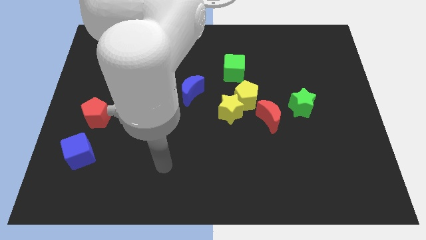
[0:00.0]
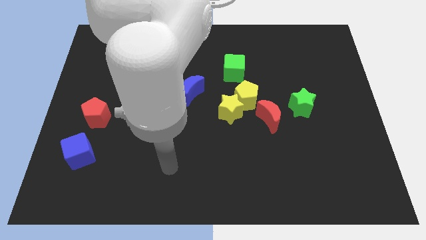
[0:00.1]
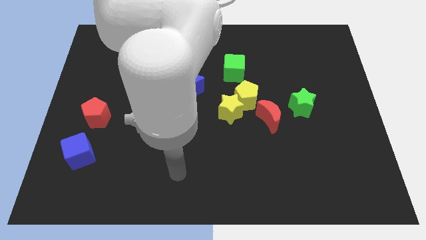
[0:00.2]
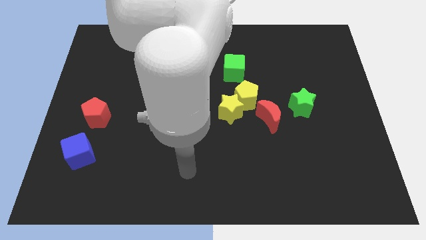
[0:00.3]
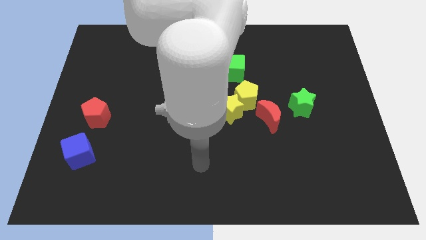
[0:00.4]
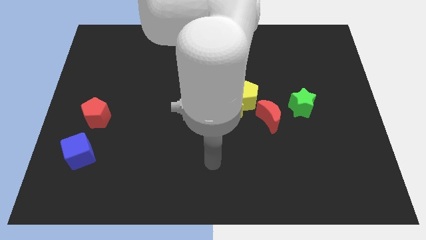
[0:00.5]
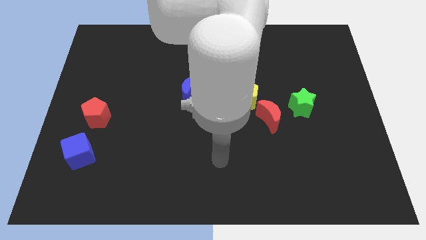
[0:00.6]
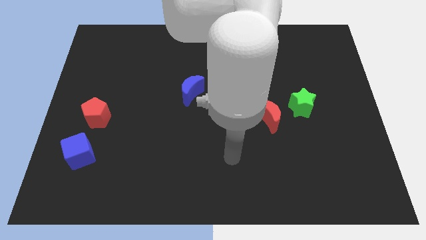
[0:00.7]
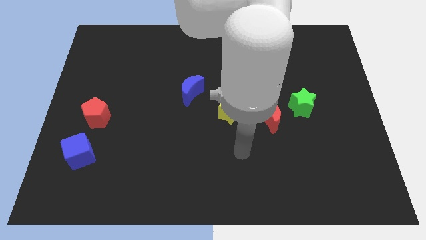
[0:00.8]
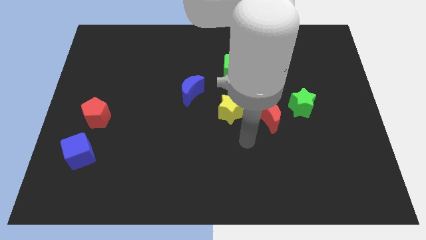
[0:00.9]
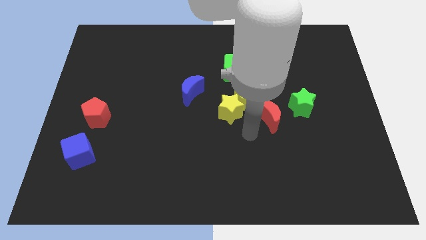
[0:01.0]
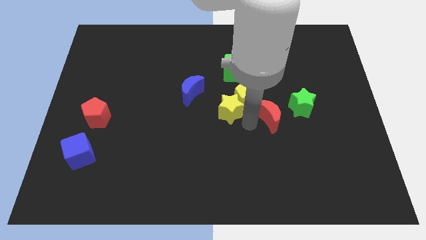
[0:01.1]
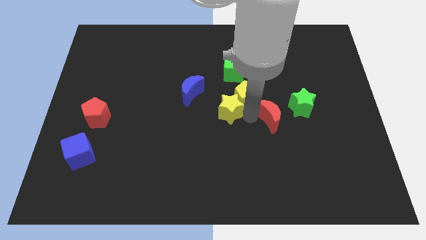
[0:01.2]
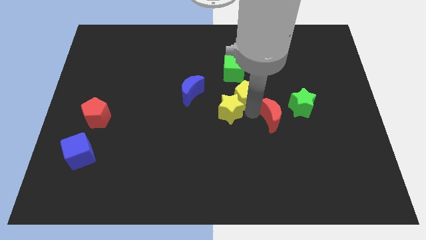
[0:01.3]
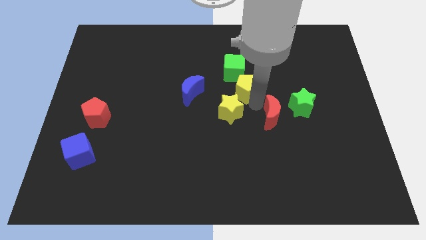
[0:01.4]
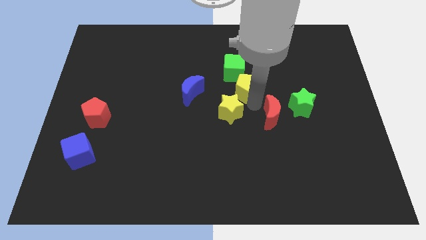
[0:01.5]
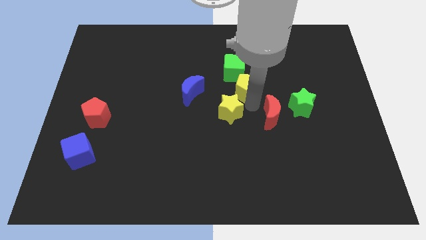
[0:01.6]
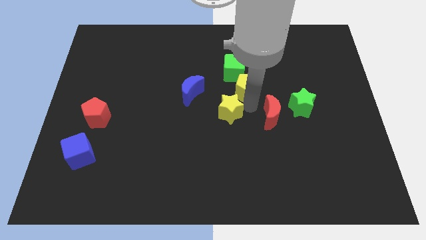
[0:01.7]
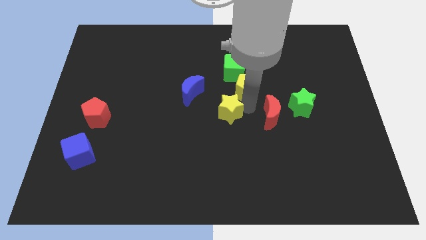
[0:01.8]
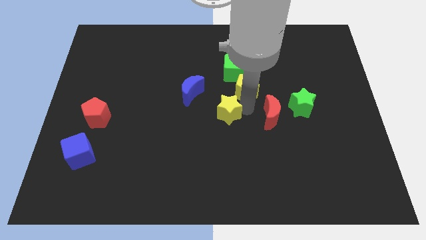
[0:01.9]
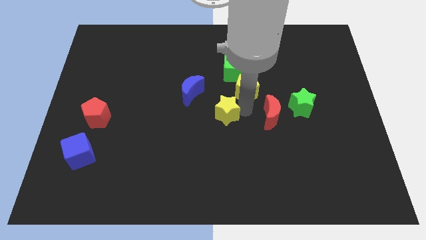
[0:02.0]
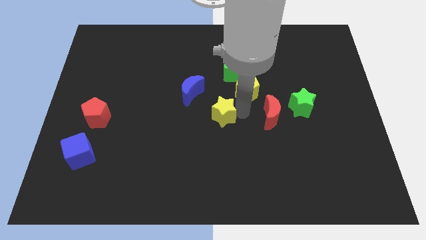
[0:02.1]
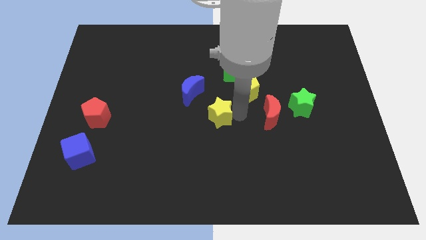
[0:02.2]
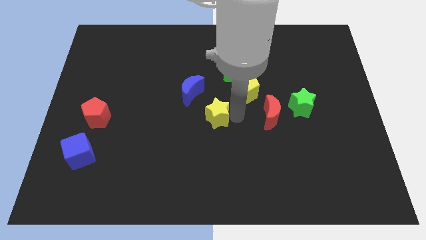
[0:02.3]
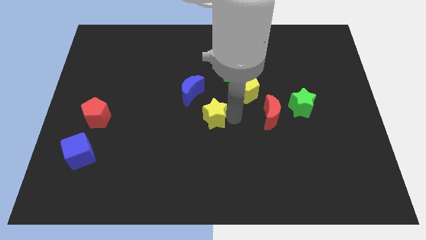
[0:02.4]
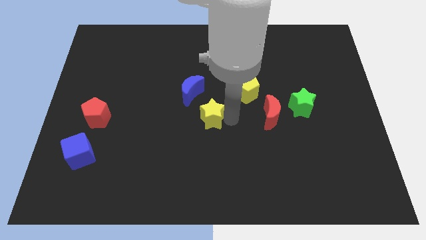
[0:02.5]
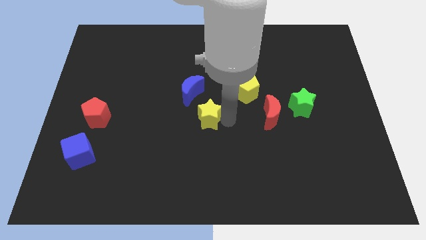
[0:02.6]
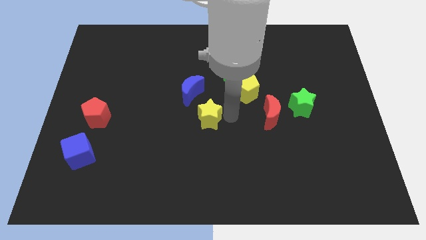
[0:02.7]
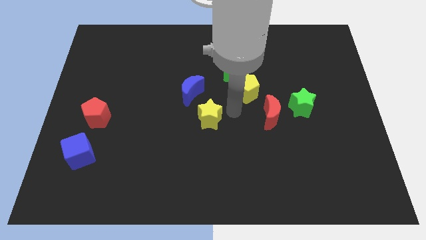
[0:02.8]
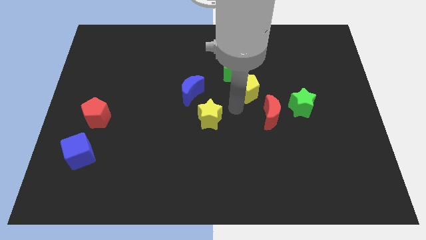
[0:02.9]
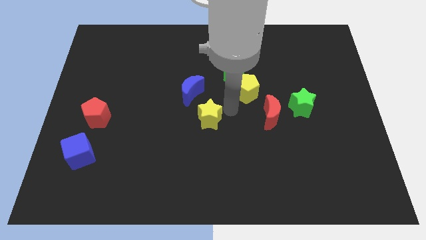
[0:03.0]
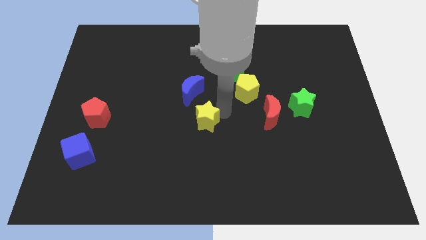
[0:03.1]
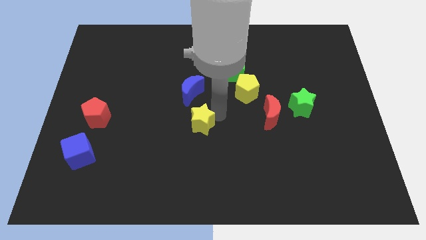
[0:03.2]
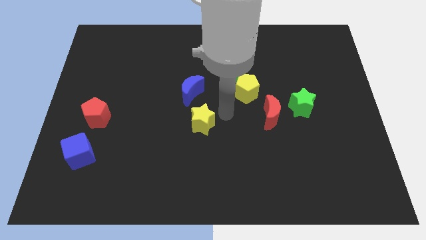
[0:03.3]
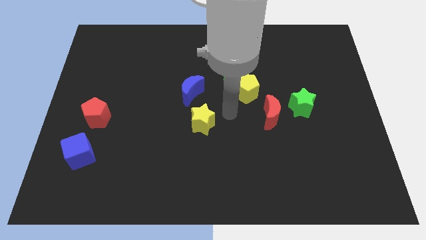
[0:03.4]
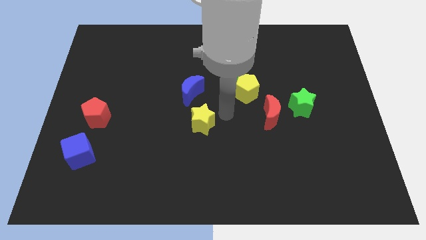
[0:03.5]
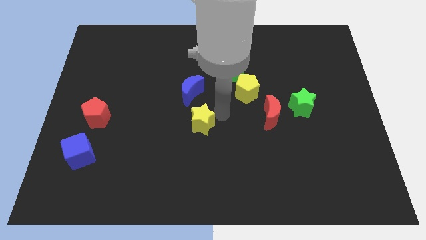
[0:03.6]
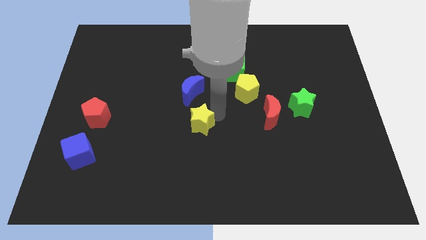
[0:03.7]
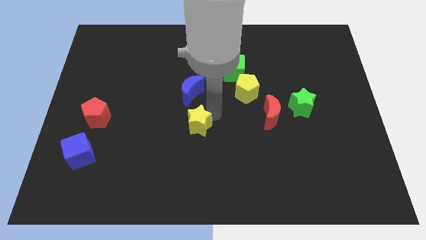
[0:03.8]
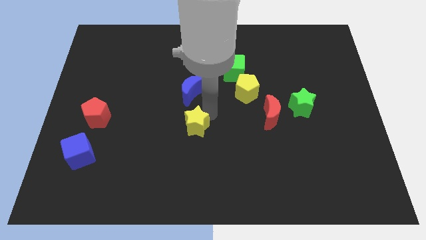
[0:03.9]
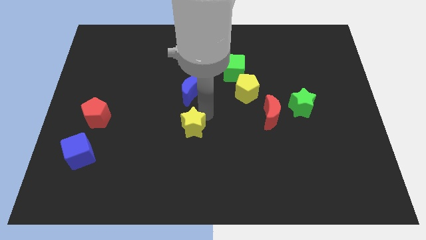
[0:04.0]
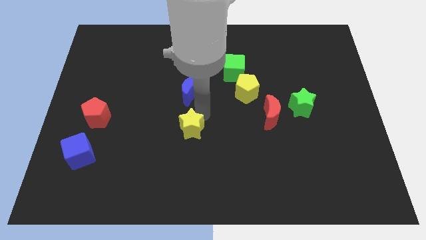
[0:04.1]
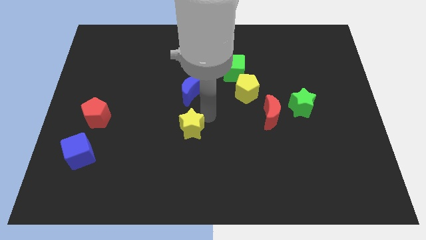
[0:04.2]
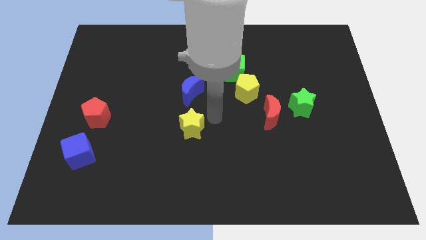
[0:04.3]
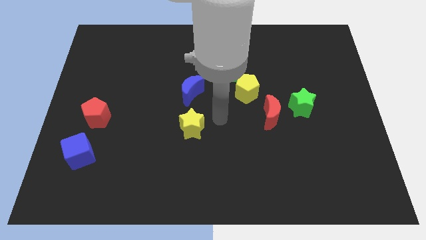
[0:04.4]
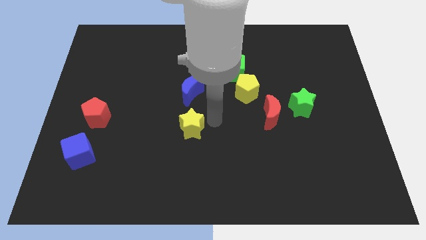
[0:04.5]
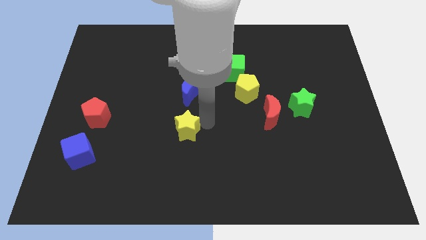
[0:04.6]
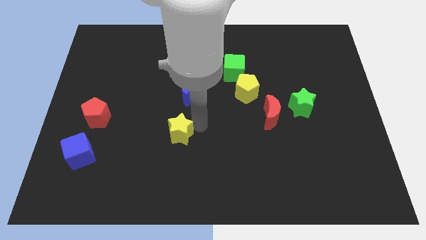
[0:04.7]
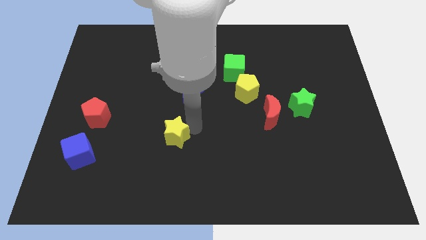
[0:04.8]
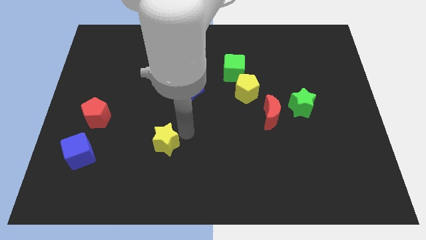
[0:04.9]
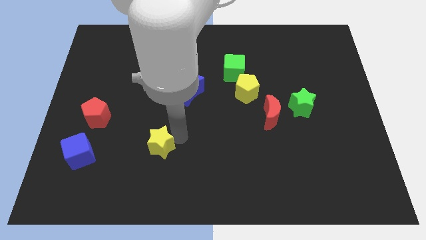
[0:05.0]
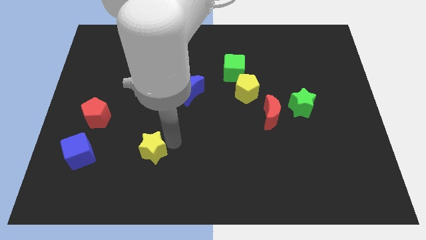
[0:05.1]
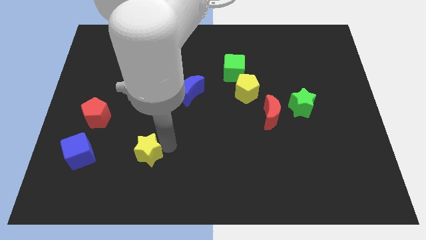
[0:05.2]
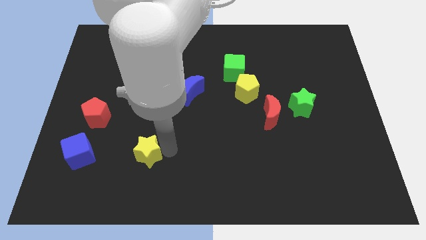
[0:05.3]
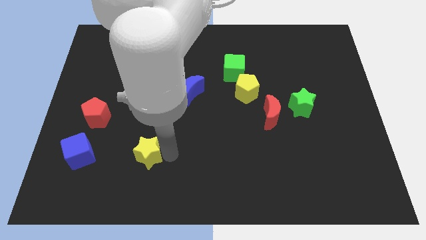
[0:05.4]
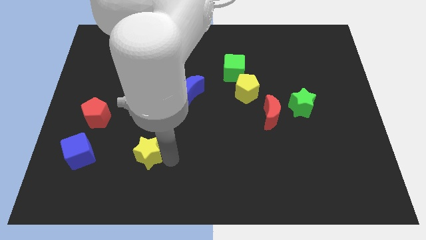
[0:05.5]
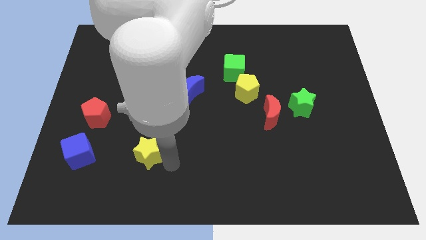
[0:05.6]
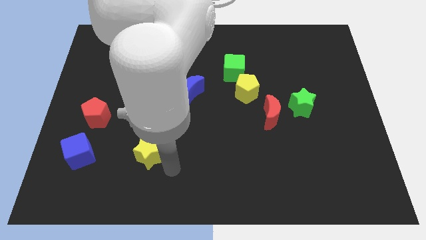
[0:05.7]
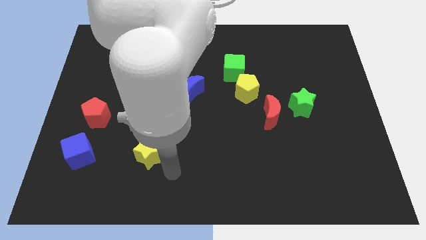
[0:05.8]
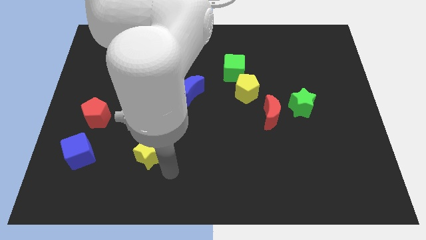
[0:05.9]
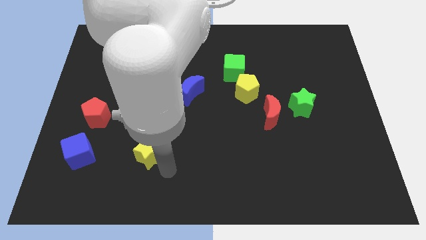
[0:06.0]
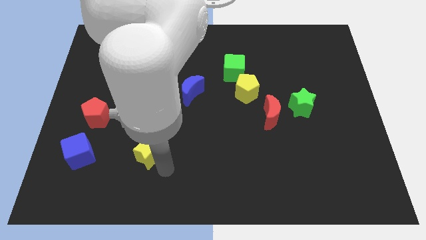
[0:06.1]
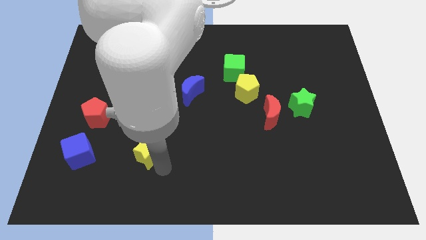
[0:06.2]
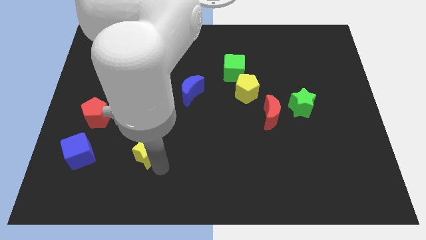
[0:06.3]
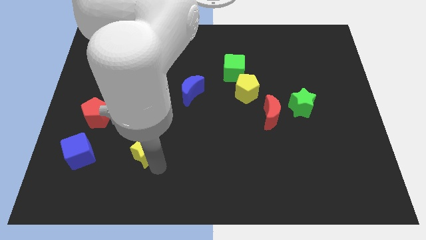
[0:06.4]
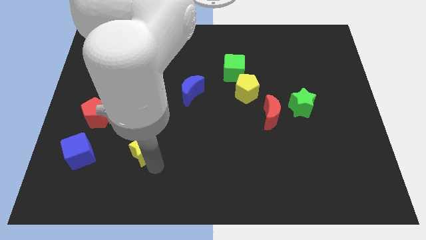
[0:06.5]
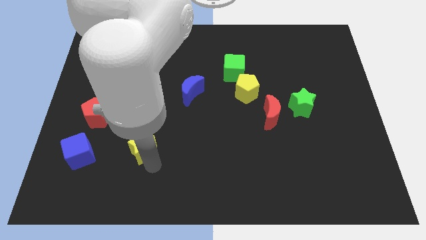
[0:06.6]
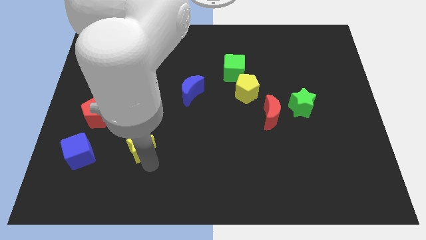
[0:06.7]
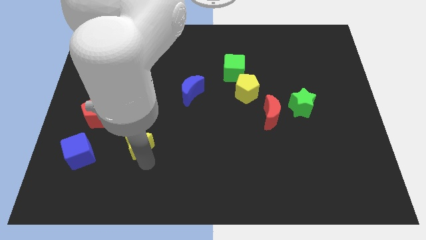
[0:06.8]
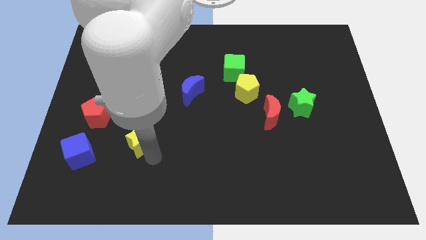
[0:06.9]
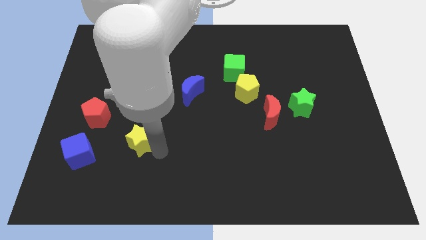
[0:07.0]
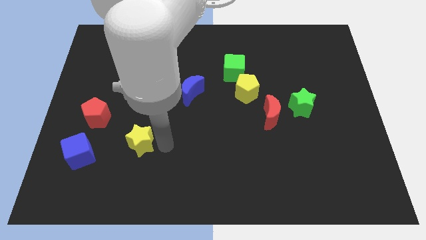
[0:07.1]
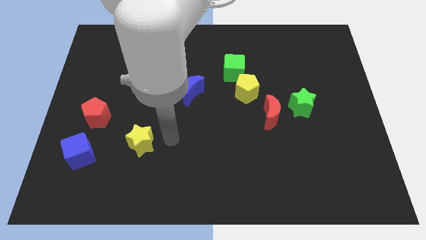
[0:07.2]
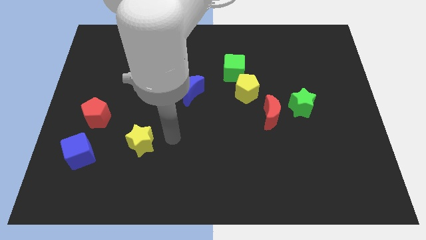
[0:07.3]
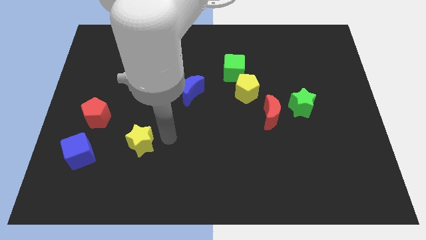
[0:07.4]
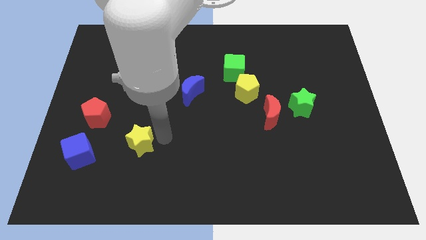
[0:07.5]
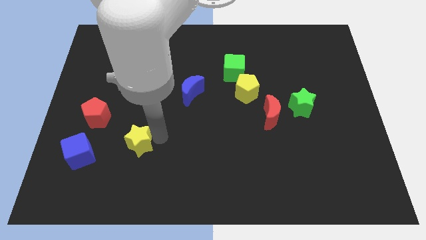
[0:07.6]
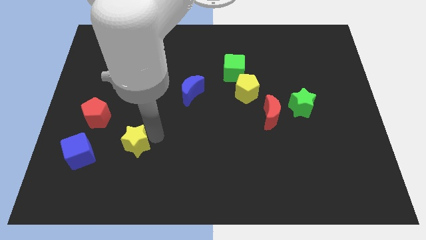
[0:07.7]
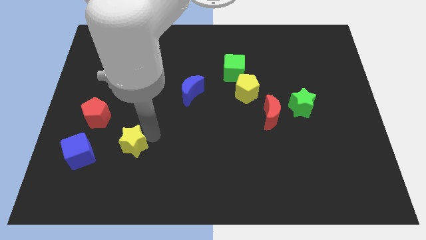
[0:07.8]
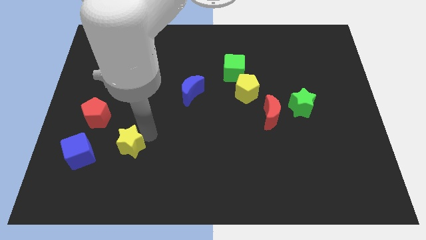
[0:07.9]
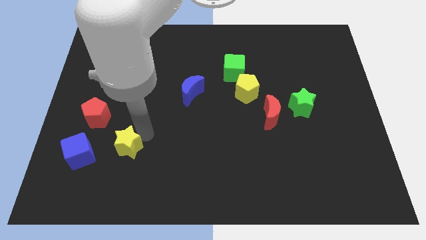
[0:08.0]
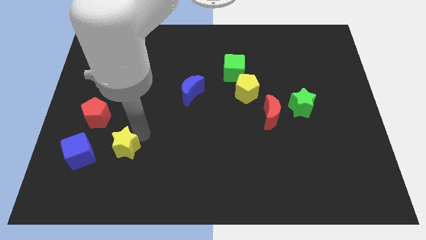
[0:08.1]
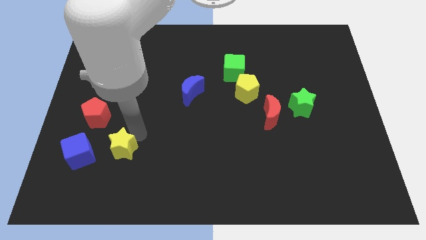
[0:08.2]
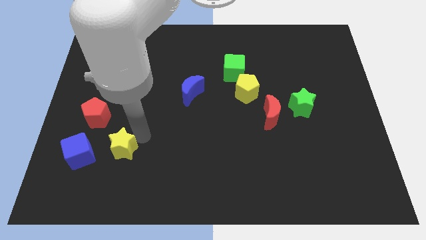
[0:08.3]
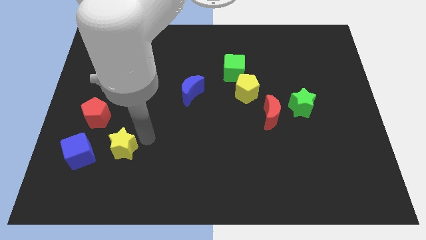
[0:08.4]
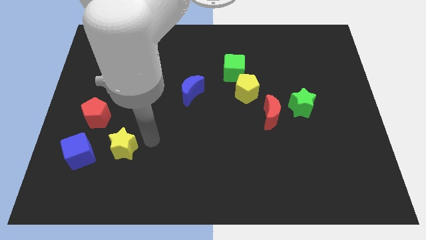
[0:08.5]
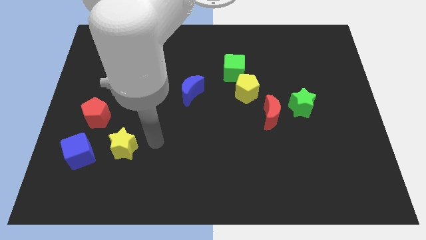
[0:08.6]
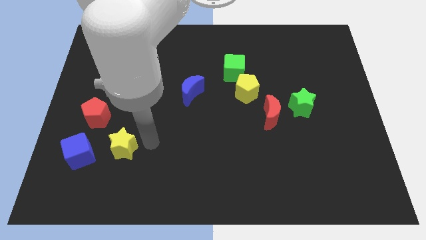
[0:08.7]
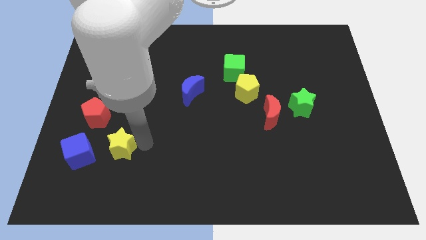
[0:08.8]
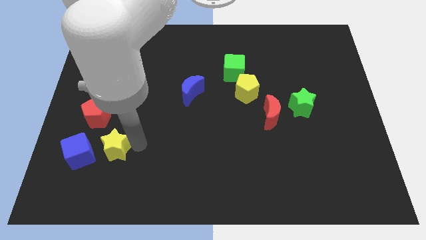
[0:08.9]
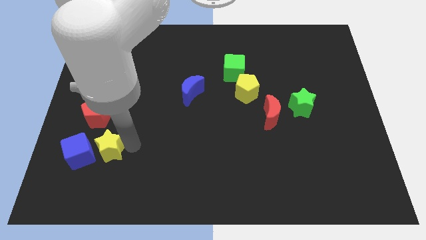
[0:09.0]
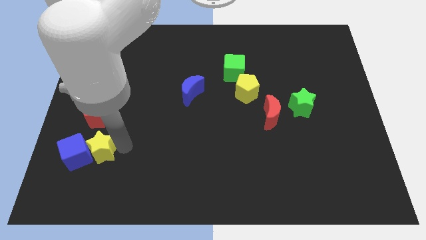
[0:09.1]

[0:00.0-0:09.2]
push the yellow star to the blue cube
